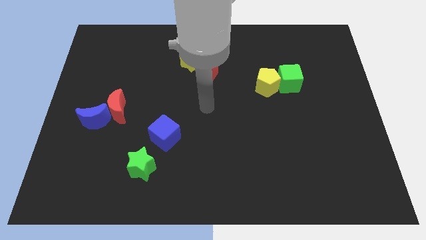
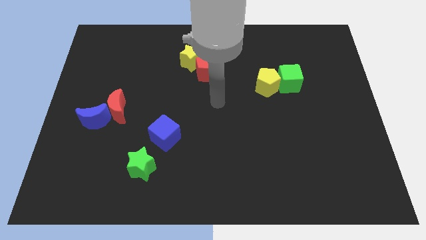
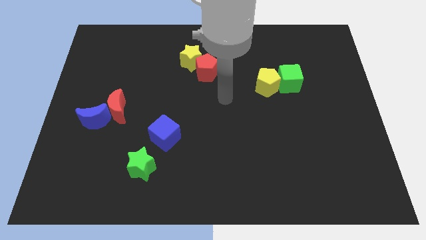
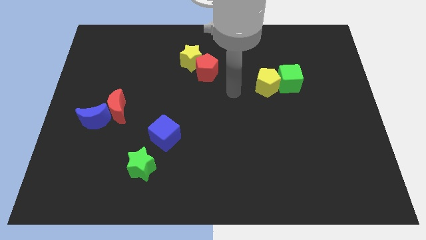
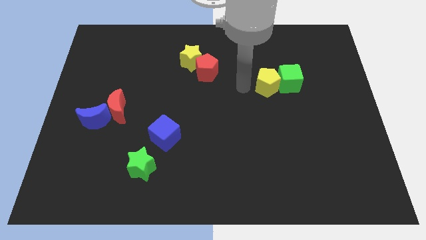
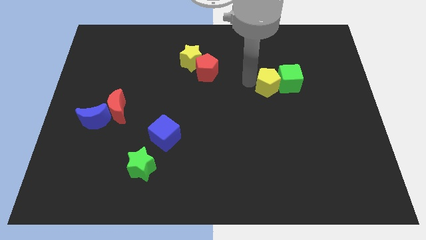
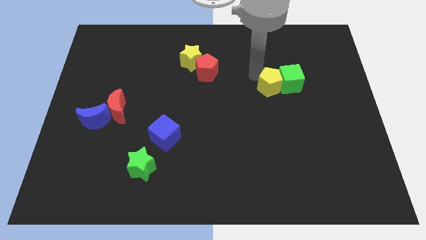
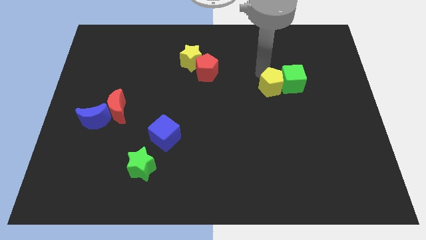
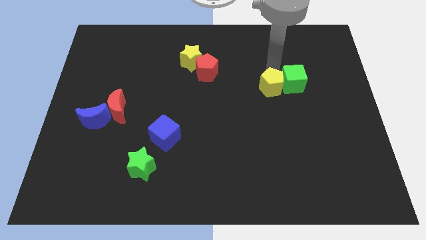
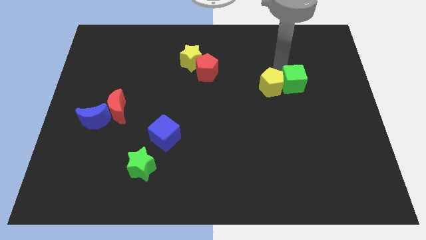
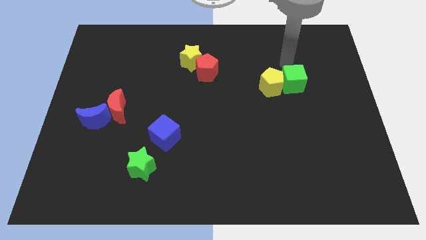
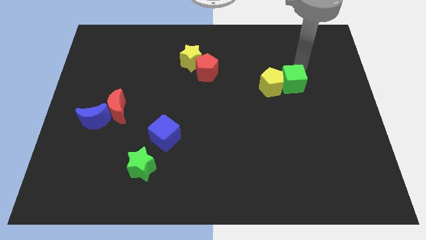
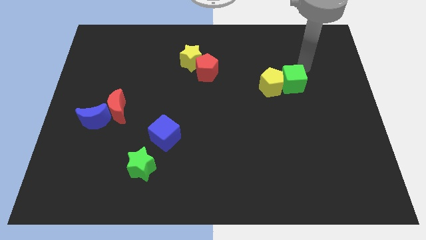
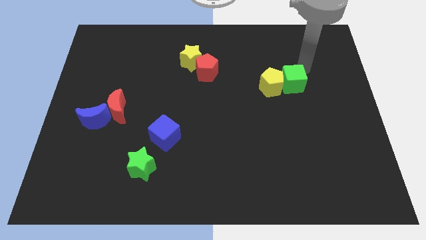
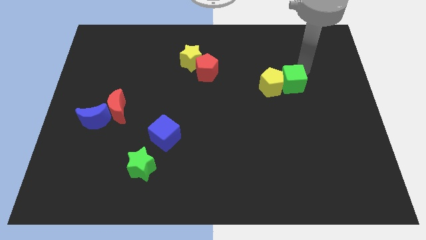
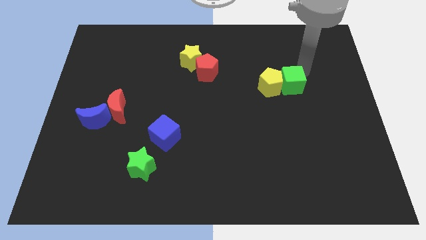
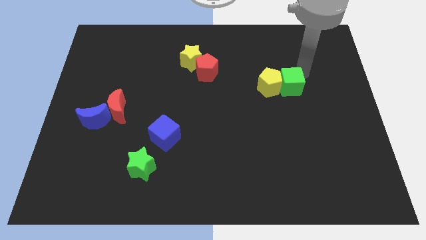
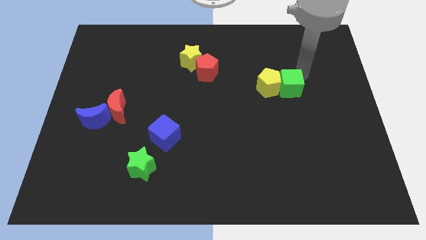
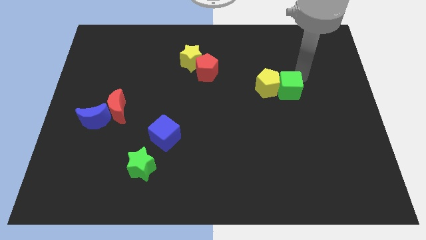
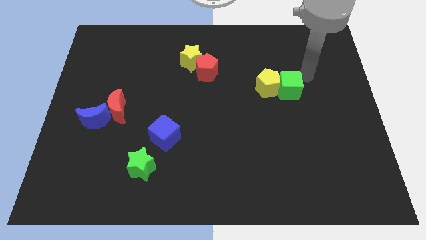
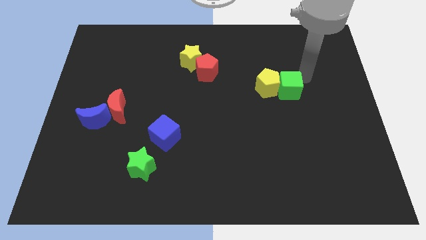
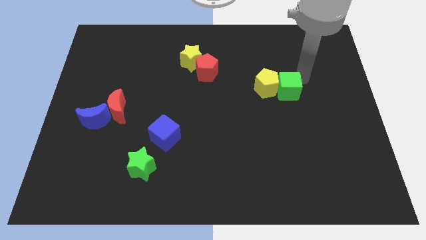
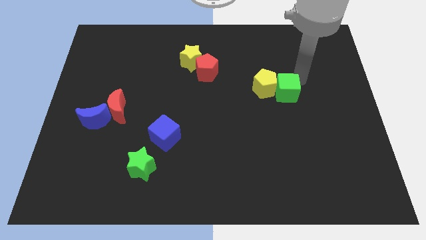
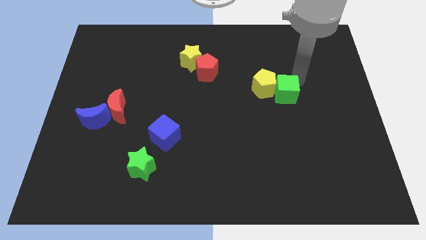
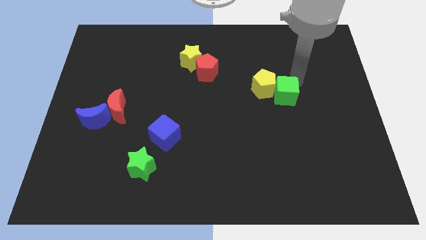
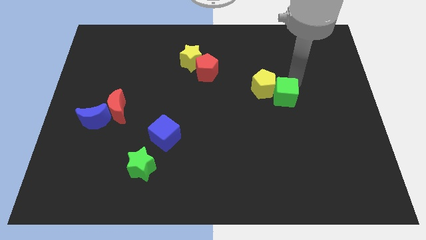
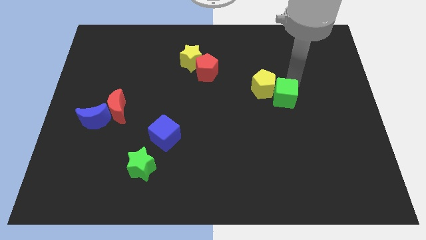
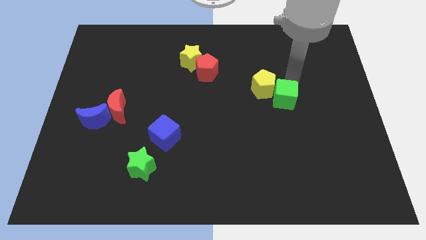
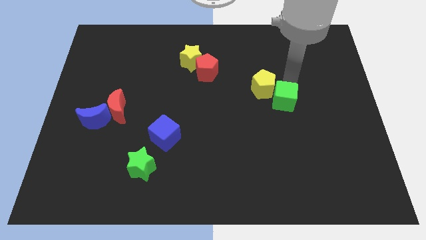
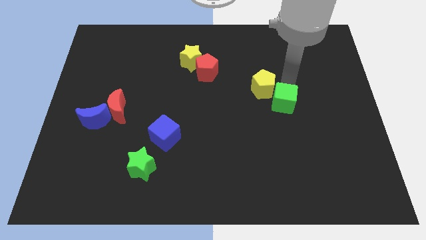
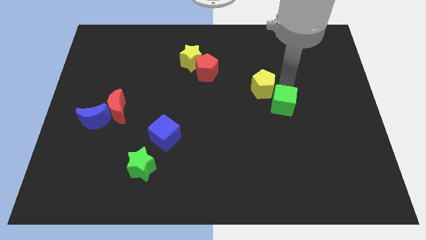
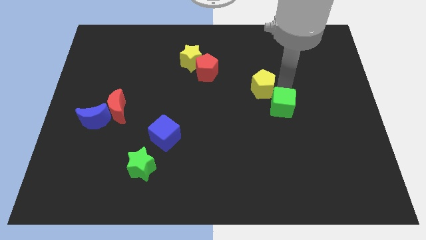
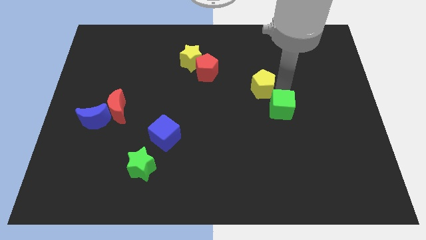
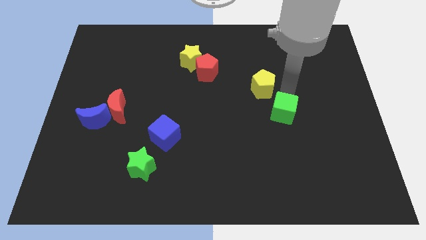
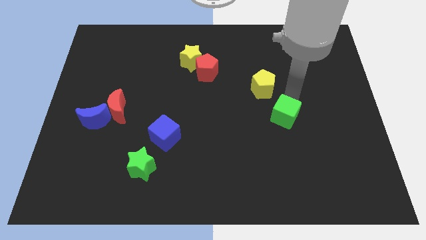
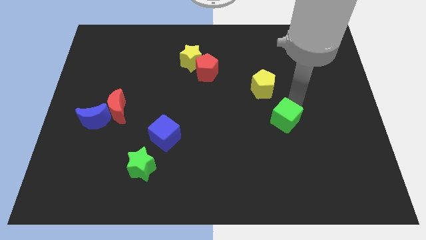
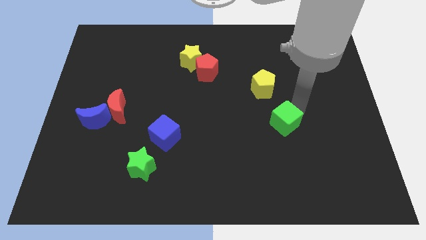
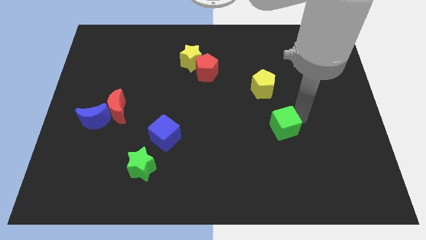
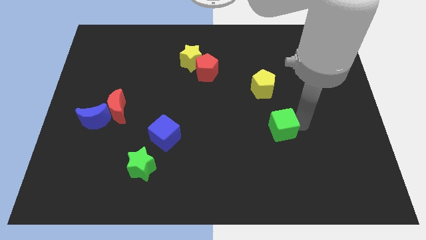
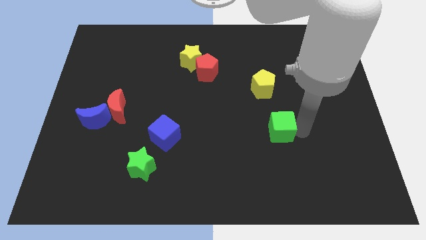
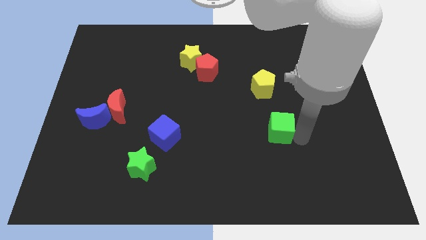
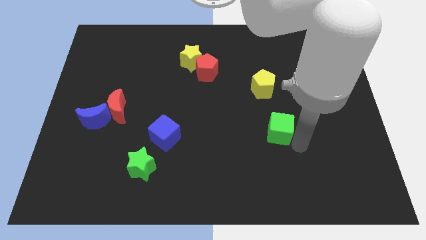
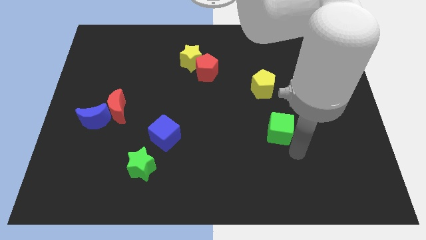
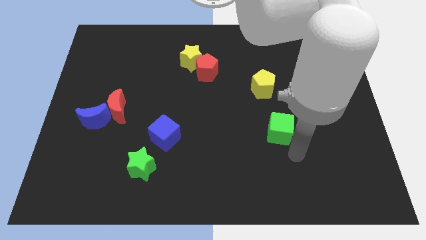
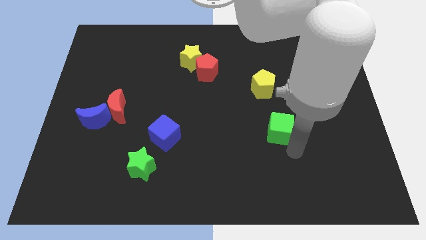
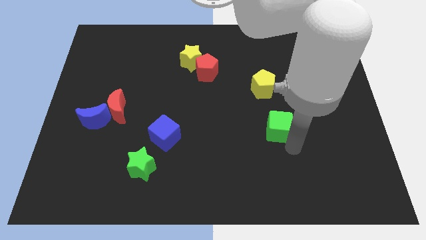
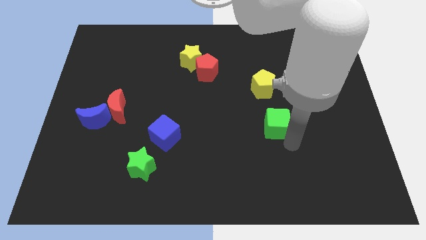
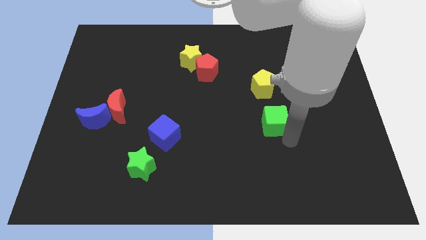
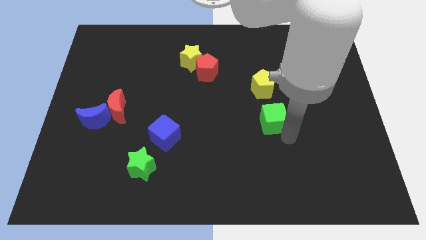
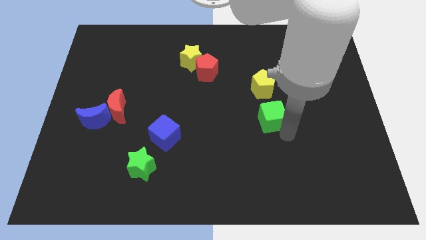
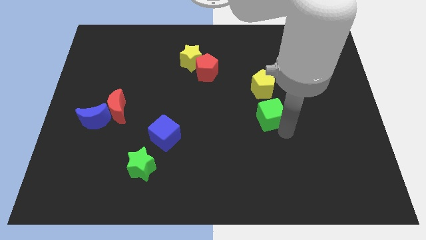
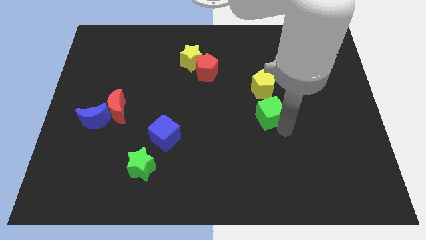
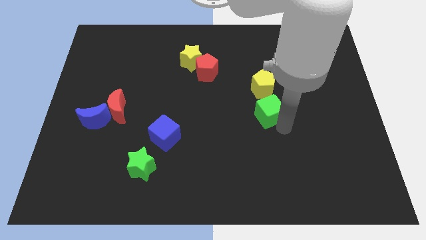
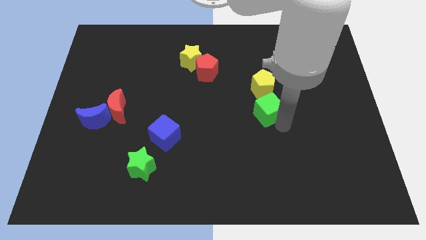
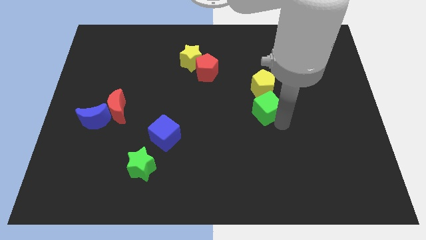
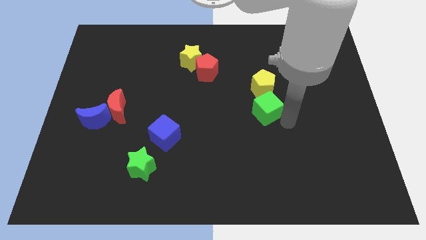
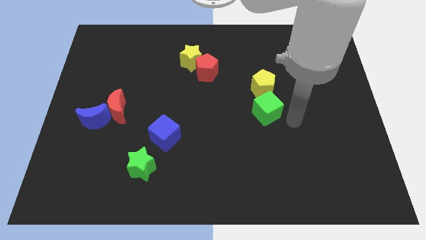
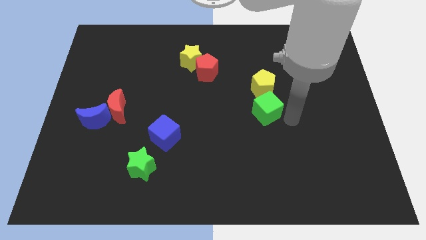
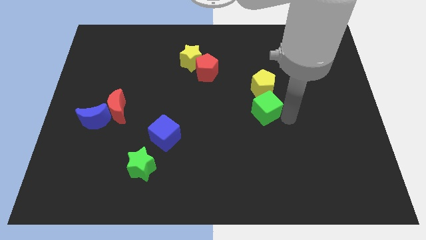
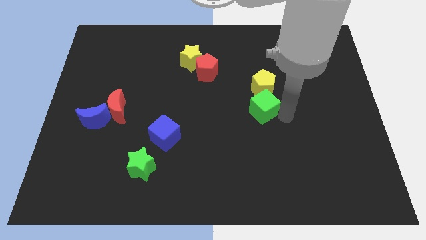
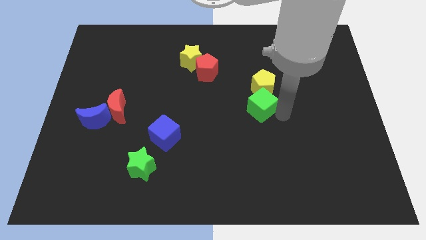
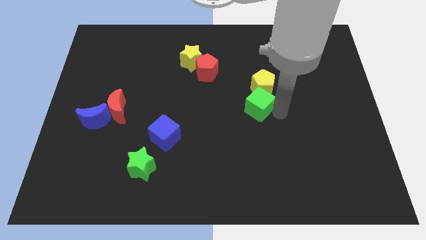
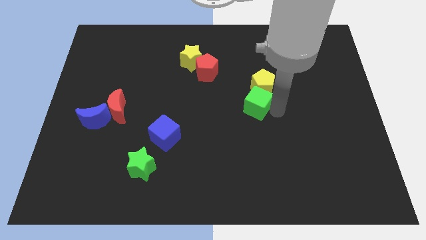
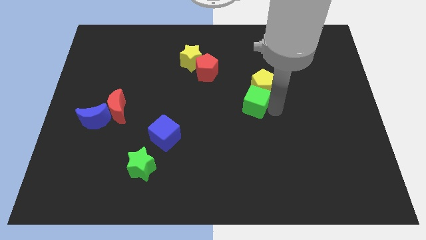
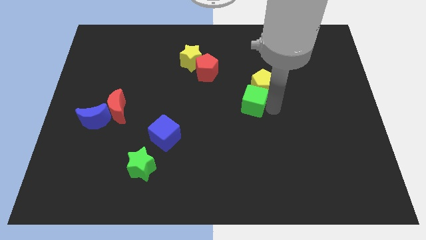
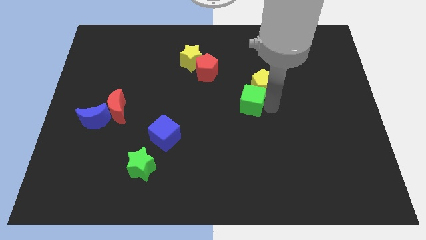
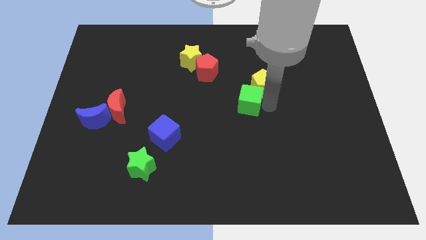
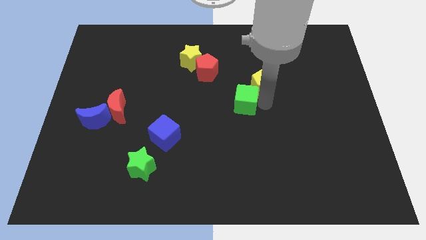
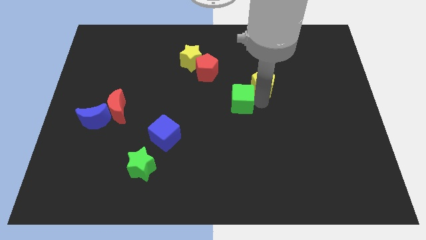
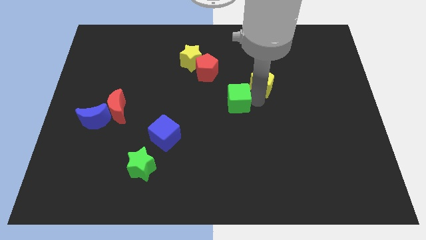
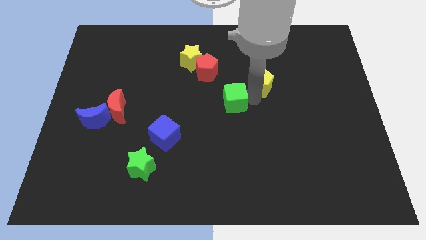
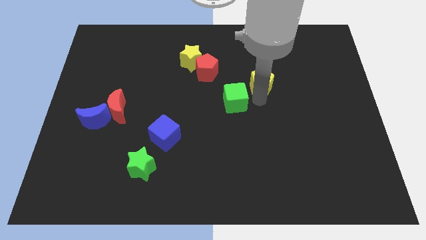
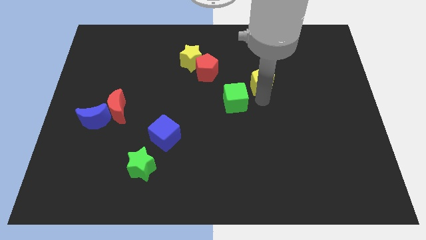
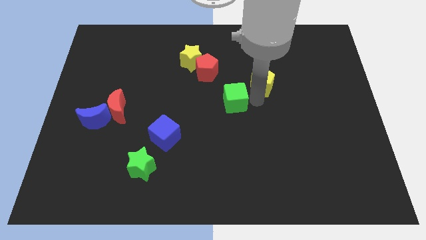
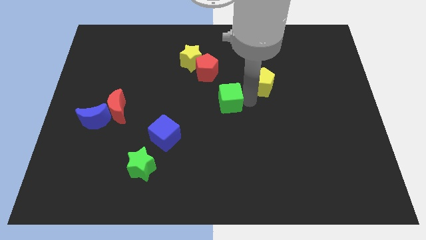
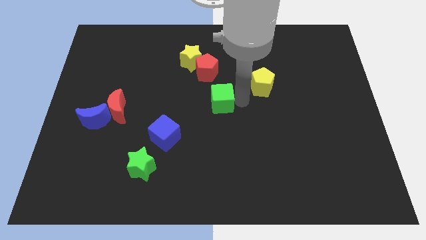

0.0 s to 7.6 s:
move the green cube to the bottom of the red pentagon
